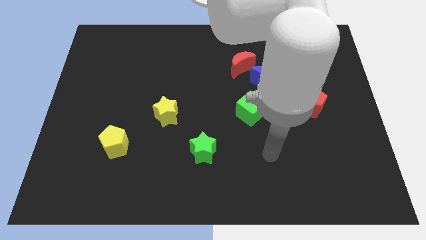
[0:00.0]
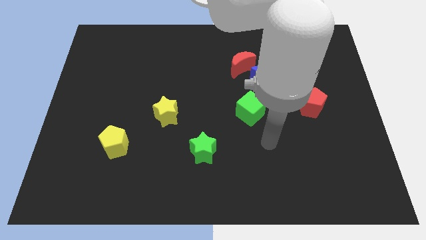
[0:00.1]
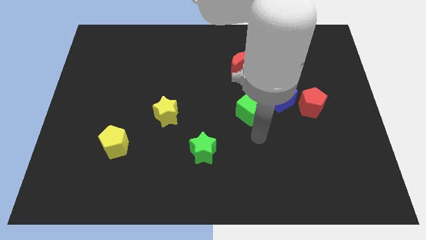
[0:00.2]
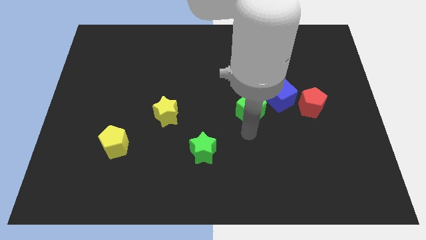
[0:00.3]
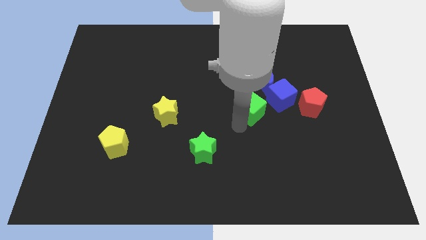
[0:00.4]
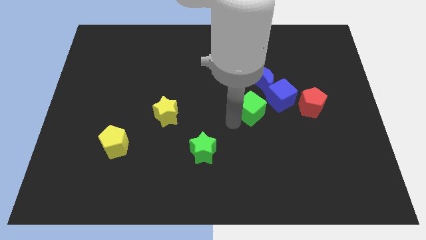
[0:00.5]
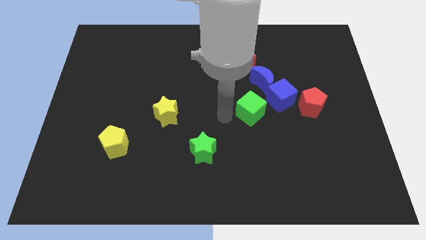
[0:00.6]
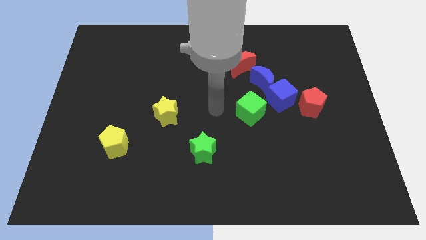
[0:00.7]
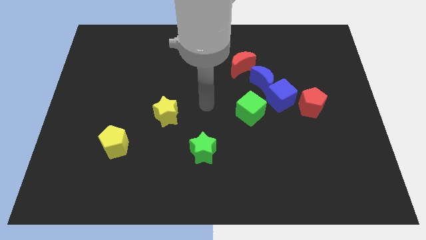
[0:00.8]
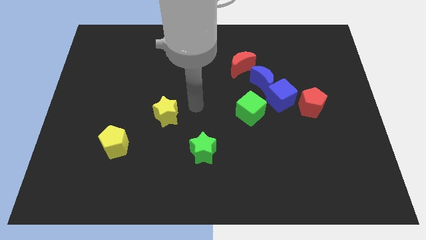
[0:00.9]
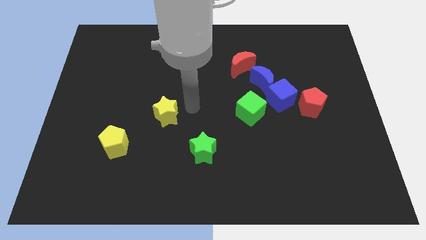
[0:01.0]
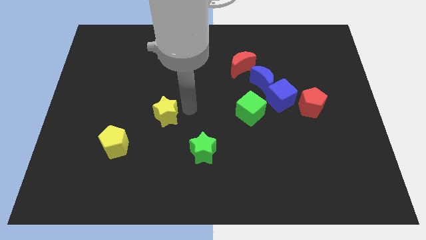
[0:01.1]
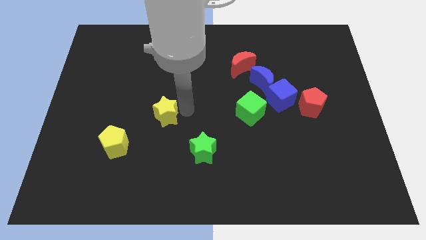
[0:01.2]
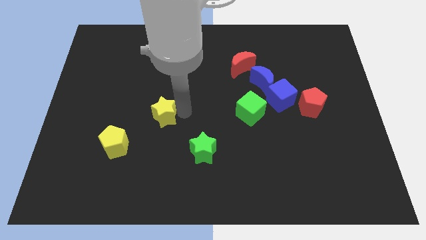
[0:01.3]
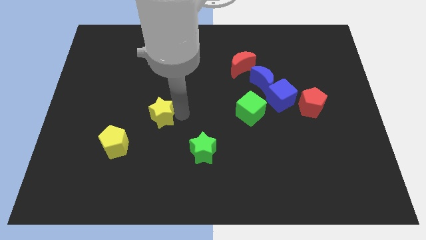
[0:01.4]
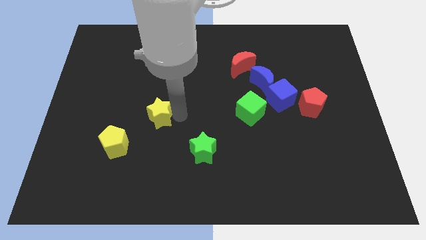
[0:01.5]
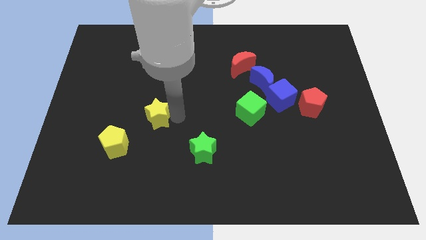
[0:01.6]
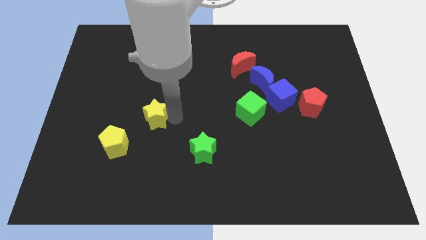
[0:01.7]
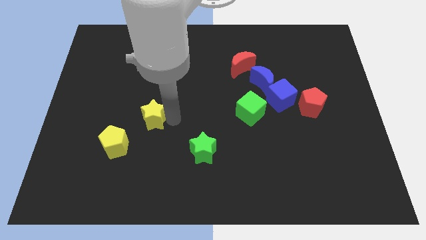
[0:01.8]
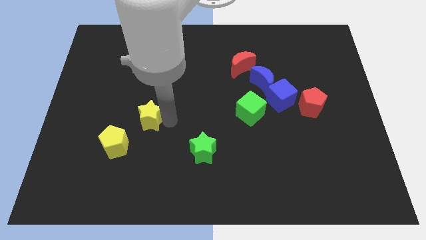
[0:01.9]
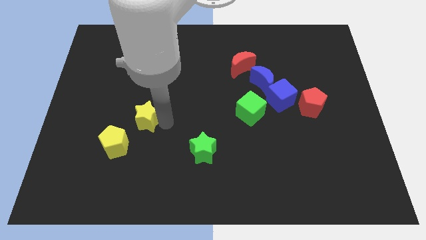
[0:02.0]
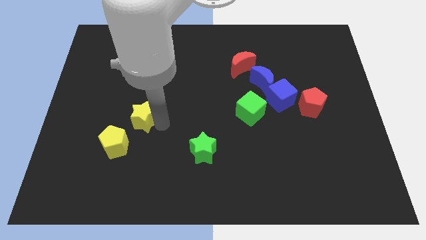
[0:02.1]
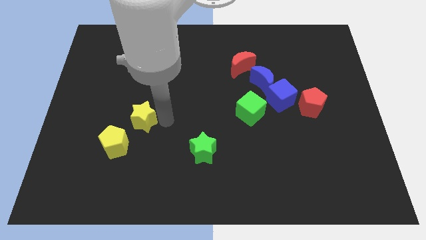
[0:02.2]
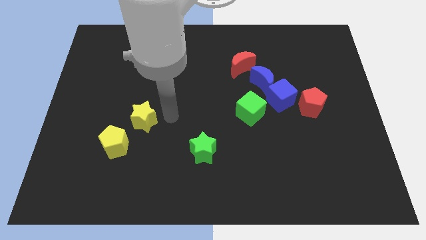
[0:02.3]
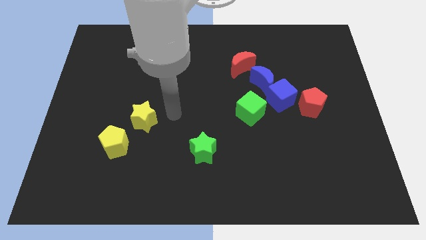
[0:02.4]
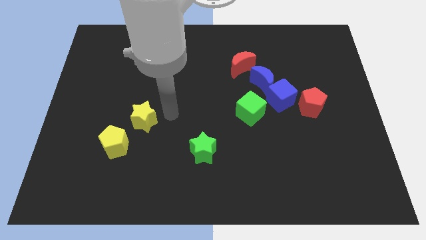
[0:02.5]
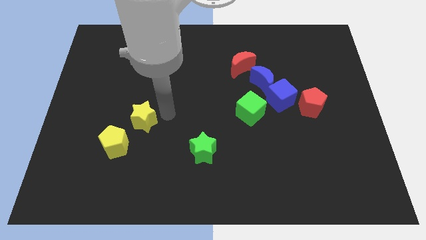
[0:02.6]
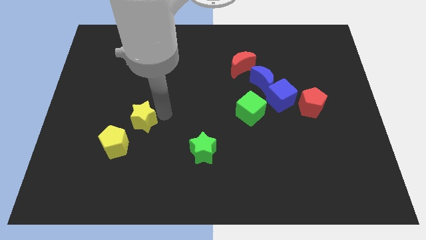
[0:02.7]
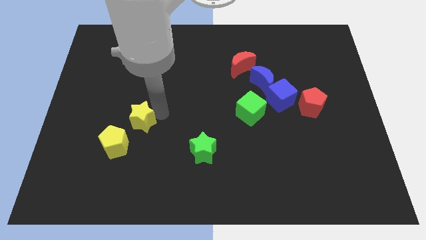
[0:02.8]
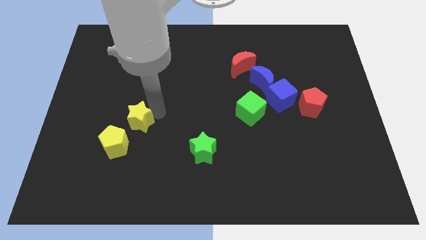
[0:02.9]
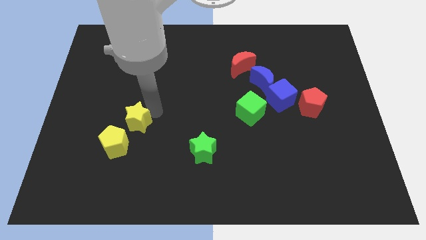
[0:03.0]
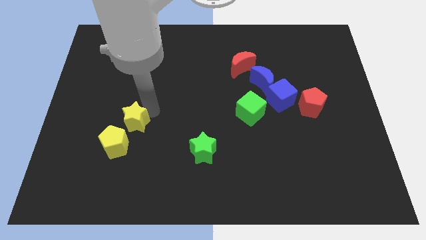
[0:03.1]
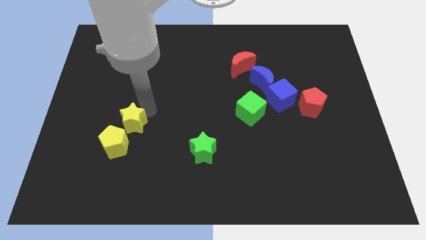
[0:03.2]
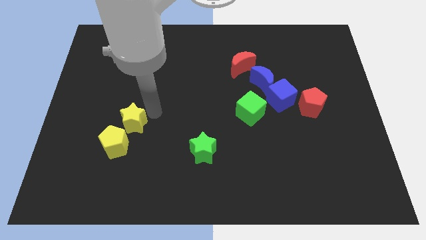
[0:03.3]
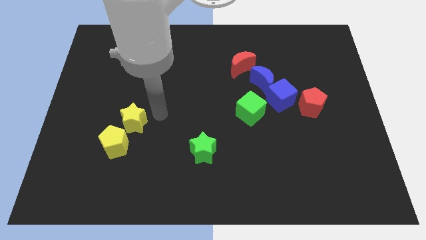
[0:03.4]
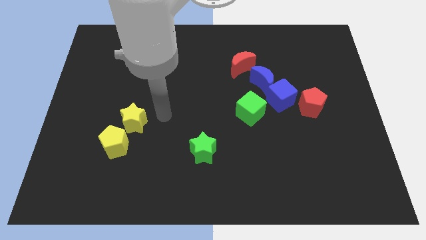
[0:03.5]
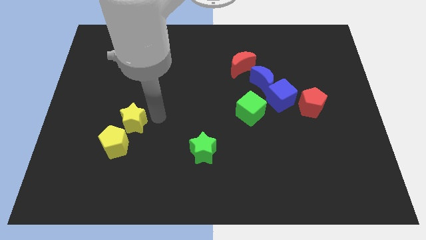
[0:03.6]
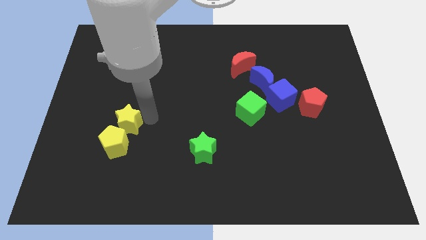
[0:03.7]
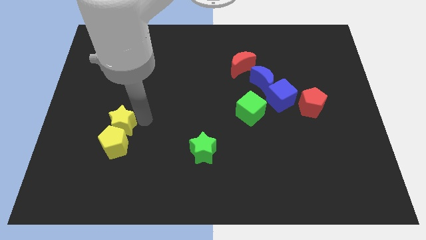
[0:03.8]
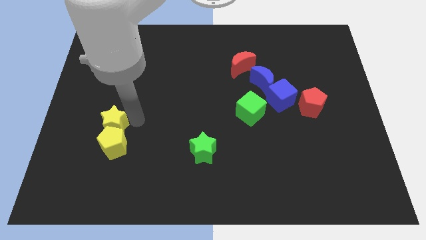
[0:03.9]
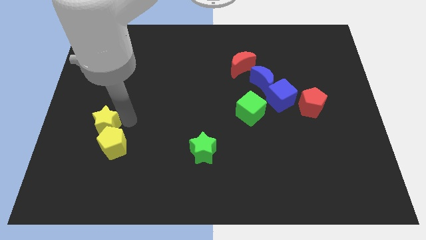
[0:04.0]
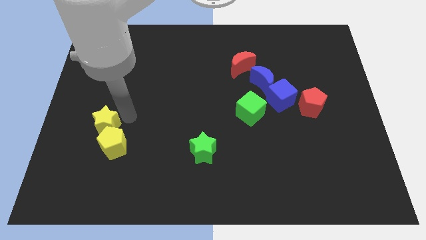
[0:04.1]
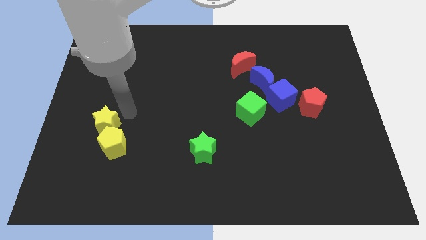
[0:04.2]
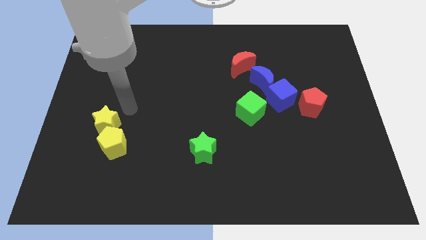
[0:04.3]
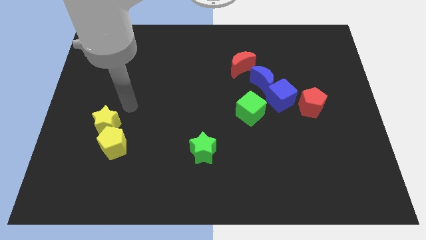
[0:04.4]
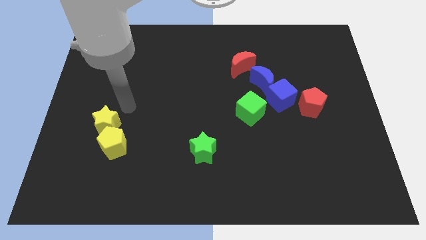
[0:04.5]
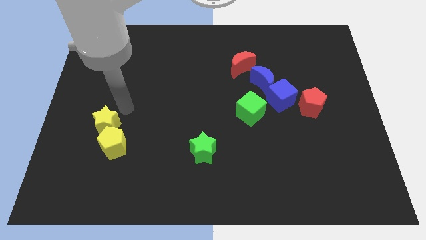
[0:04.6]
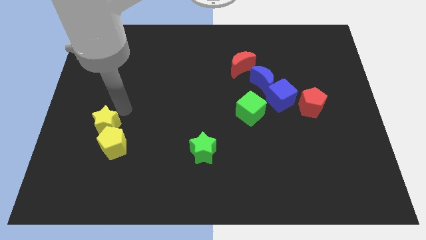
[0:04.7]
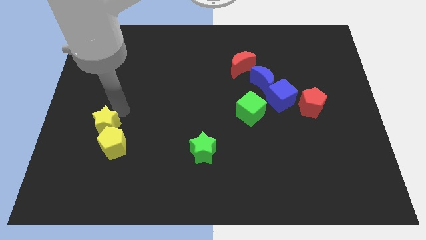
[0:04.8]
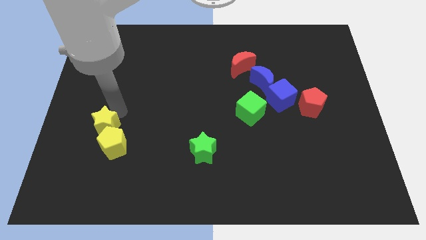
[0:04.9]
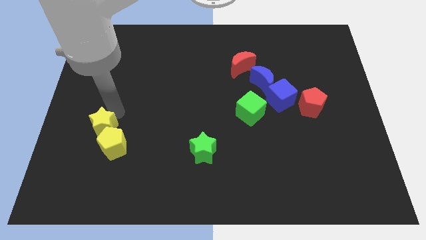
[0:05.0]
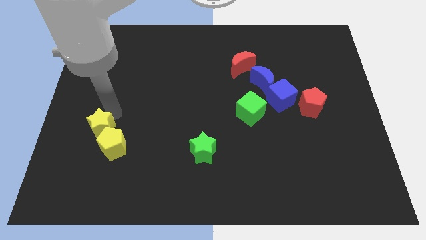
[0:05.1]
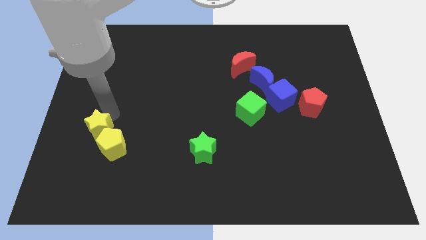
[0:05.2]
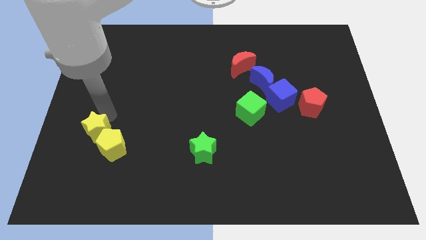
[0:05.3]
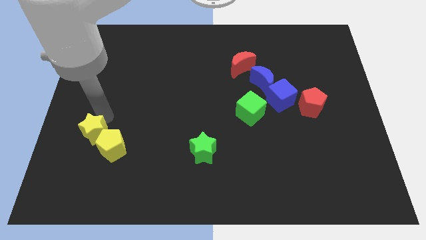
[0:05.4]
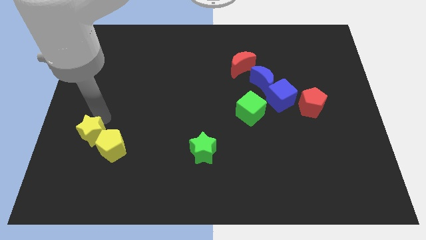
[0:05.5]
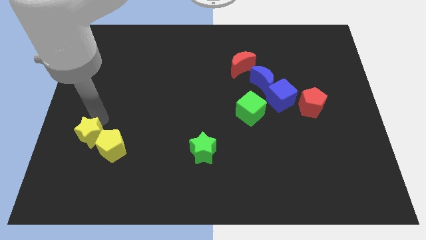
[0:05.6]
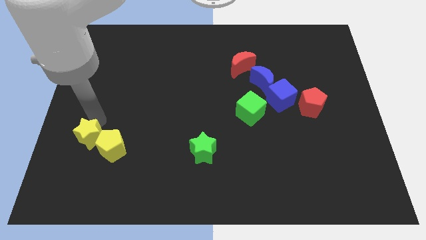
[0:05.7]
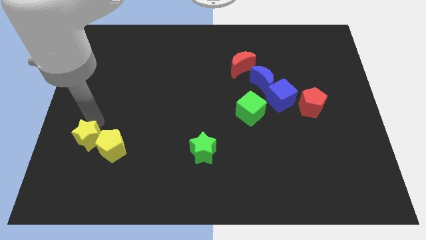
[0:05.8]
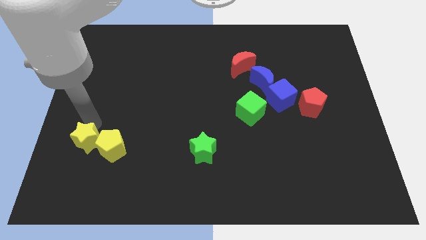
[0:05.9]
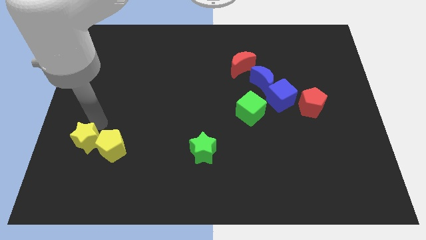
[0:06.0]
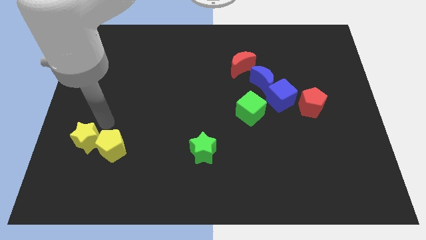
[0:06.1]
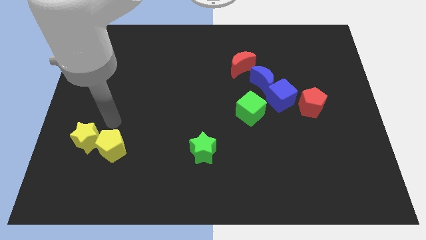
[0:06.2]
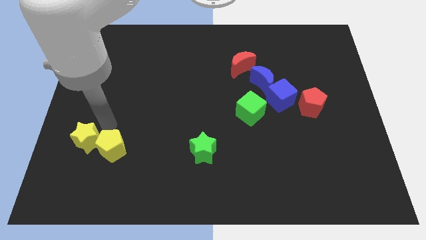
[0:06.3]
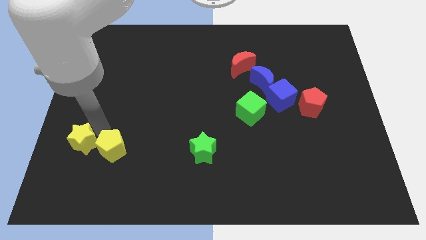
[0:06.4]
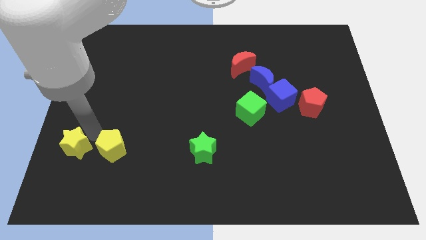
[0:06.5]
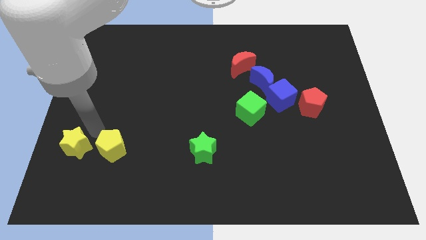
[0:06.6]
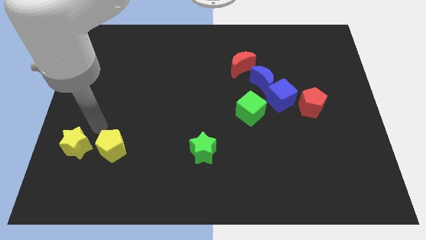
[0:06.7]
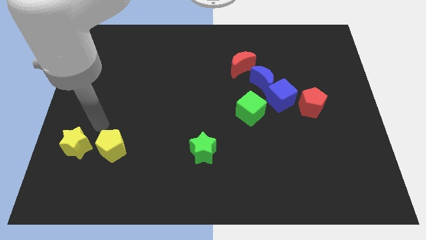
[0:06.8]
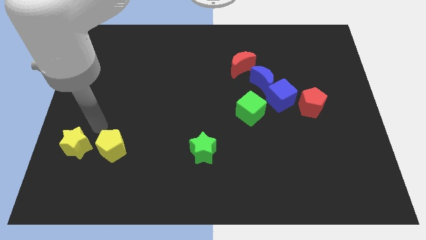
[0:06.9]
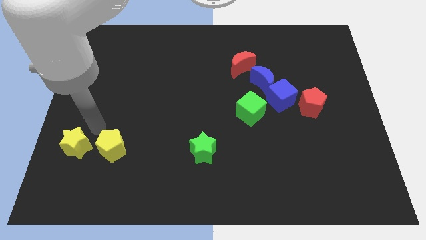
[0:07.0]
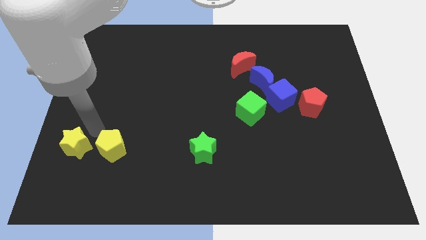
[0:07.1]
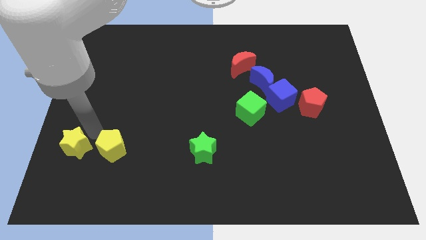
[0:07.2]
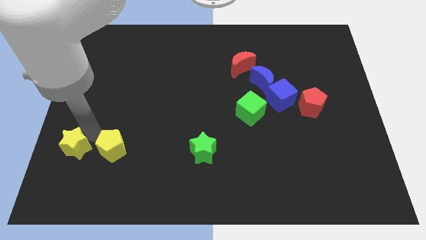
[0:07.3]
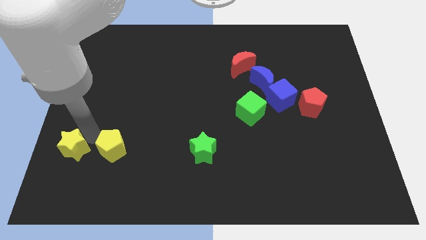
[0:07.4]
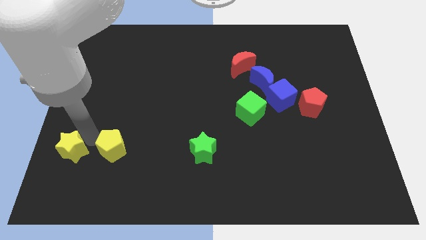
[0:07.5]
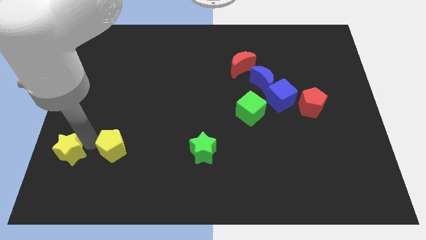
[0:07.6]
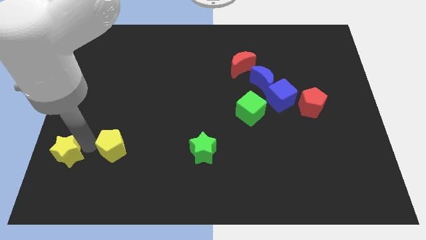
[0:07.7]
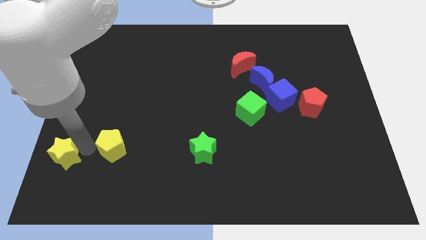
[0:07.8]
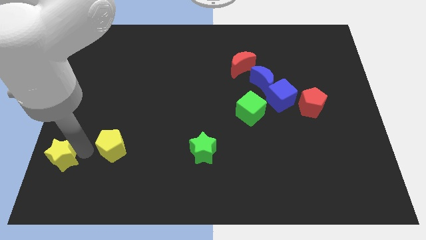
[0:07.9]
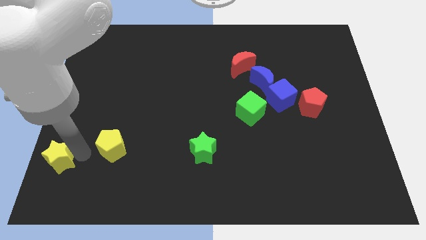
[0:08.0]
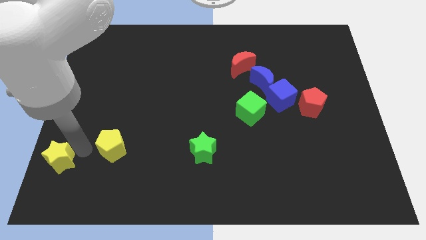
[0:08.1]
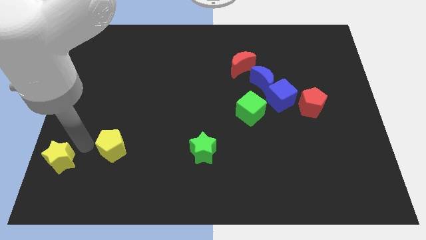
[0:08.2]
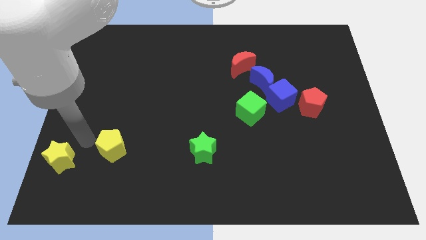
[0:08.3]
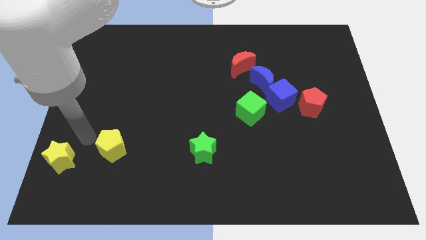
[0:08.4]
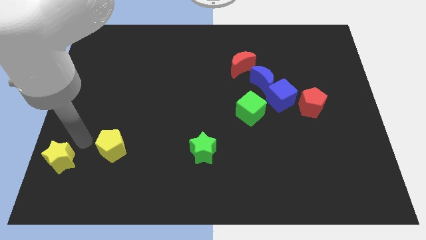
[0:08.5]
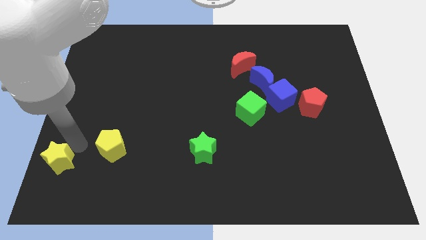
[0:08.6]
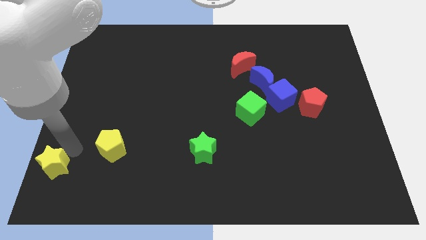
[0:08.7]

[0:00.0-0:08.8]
slide the yellow star to the bottom left of the board
